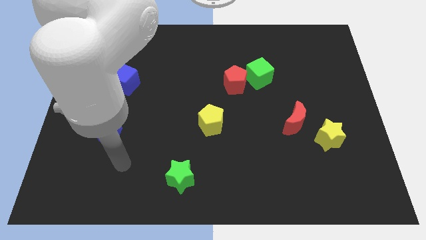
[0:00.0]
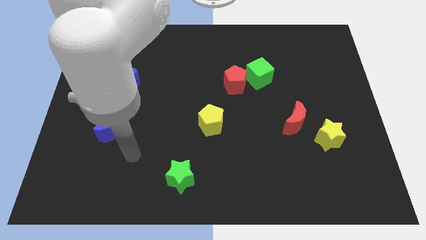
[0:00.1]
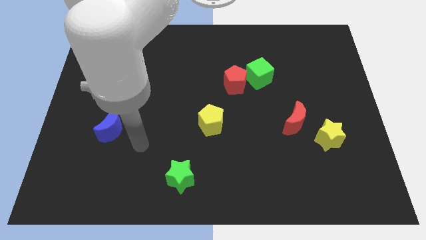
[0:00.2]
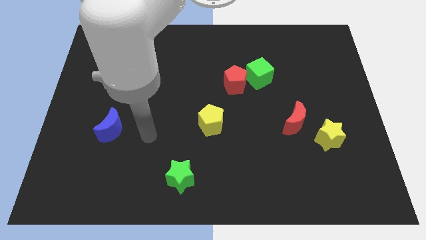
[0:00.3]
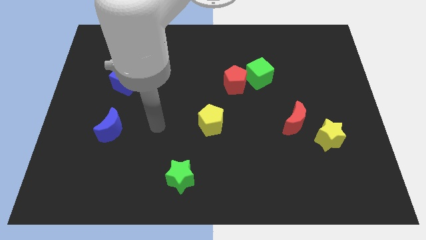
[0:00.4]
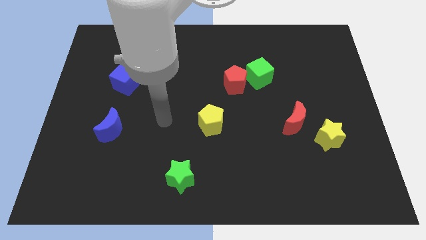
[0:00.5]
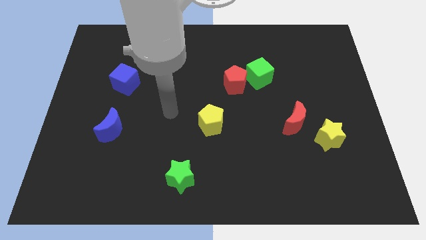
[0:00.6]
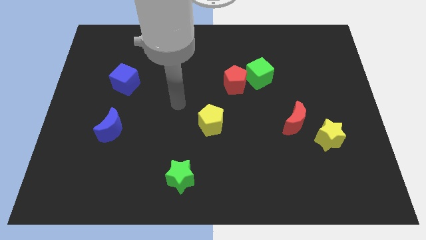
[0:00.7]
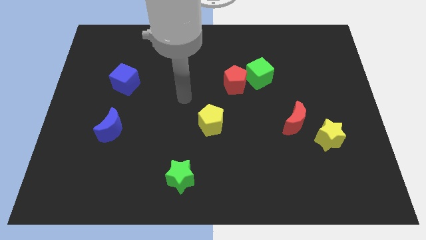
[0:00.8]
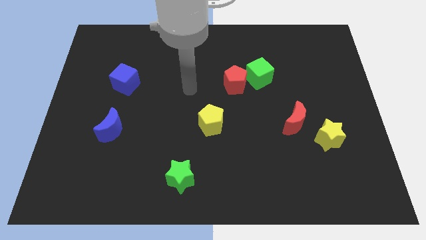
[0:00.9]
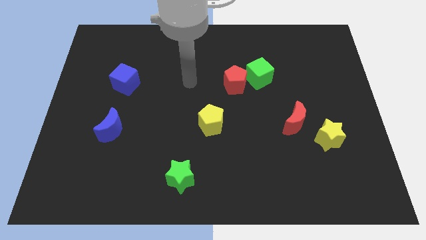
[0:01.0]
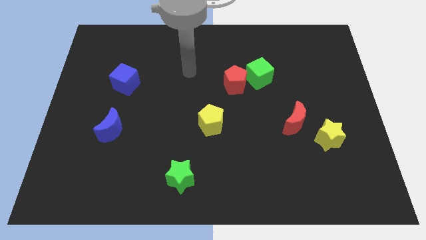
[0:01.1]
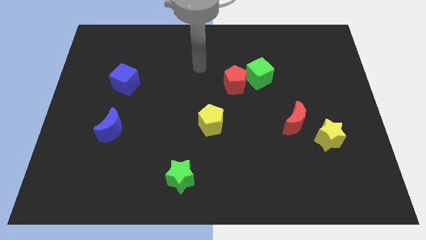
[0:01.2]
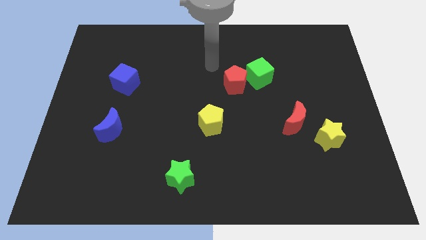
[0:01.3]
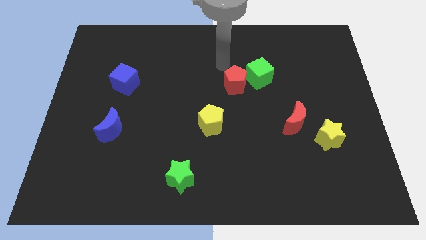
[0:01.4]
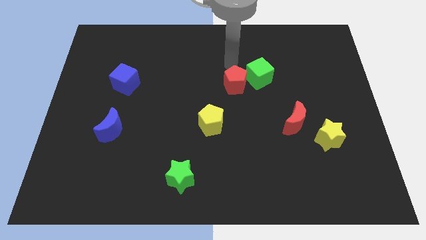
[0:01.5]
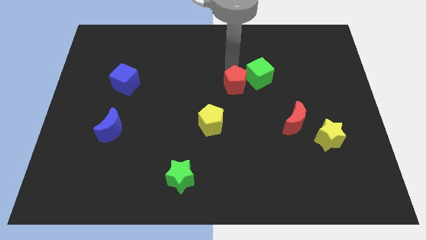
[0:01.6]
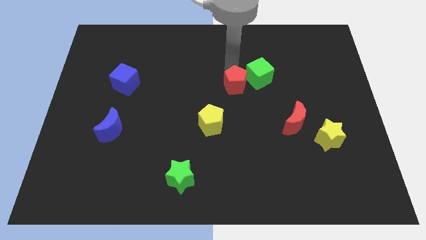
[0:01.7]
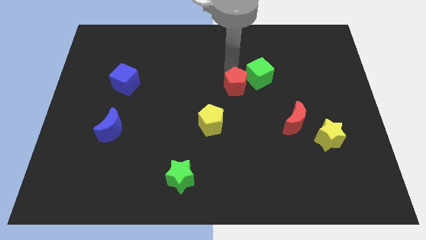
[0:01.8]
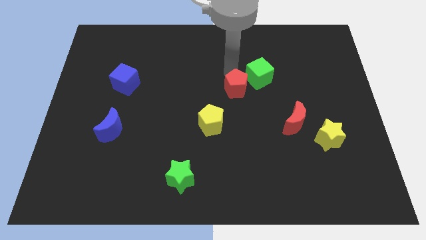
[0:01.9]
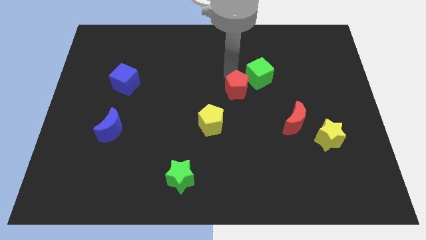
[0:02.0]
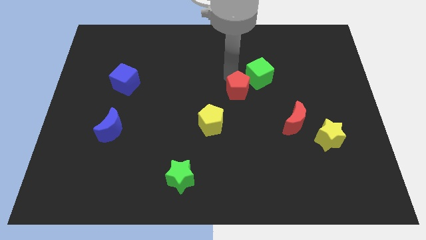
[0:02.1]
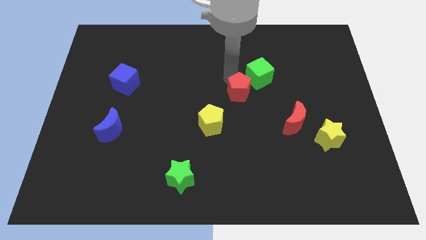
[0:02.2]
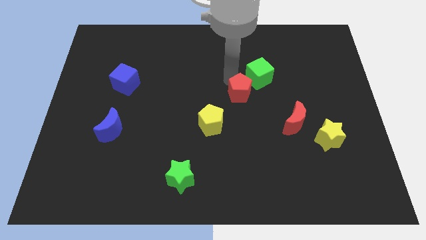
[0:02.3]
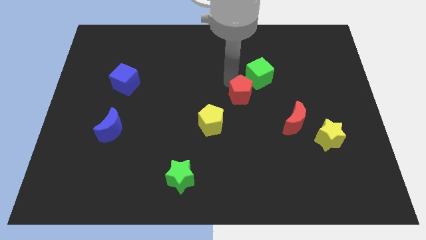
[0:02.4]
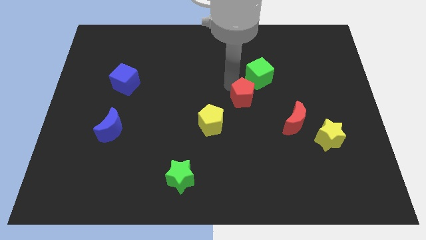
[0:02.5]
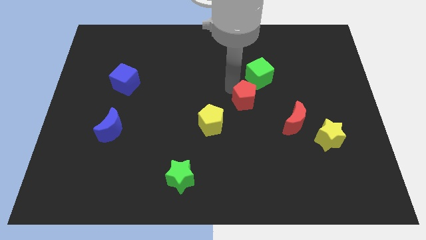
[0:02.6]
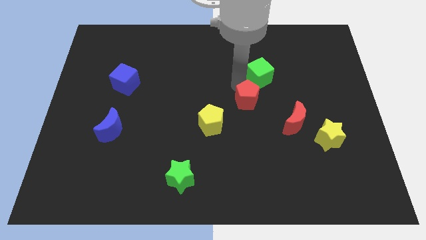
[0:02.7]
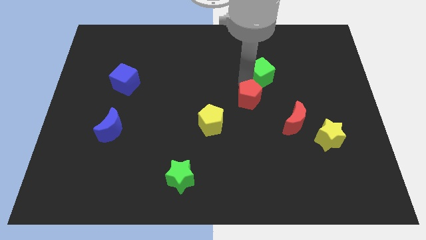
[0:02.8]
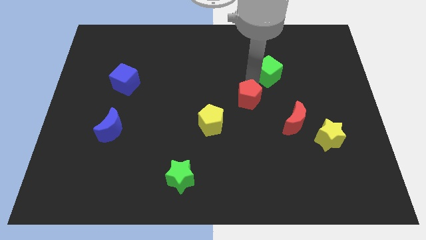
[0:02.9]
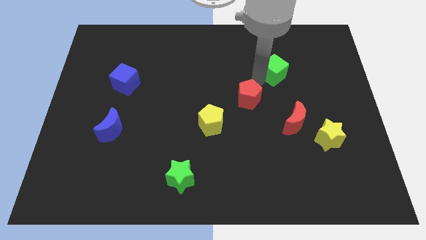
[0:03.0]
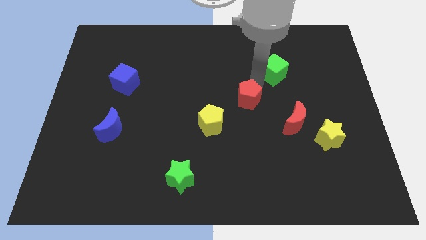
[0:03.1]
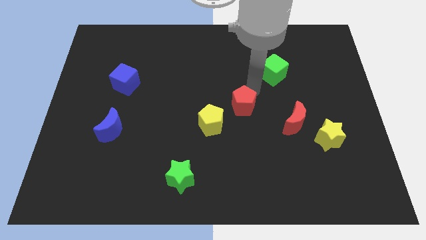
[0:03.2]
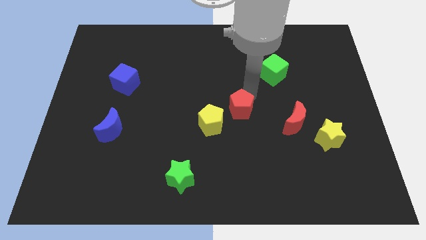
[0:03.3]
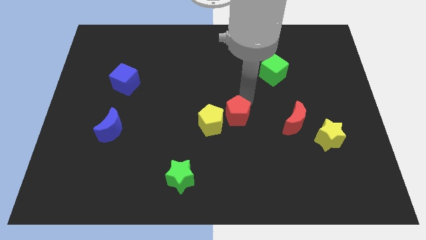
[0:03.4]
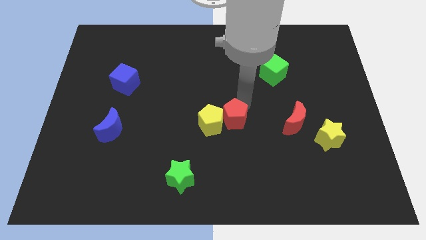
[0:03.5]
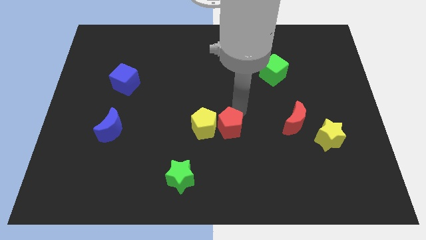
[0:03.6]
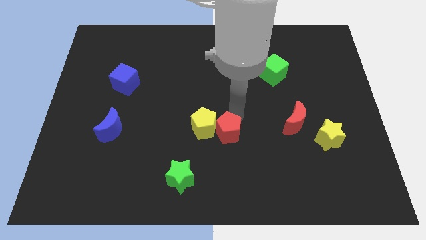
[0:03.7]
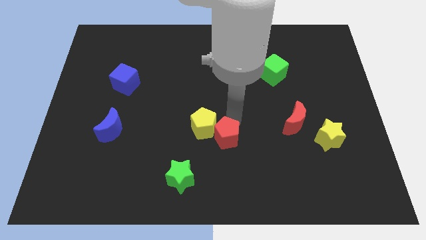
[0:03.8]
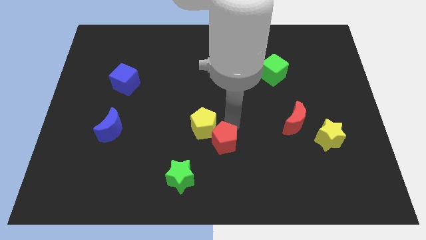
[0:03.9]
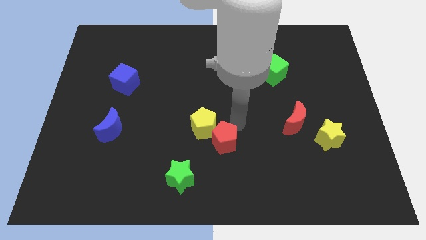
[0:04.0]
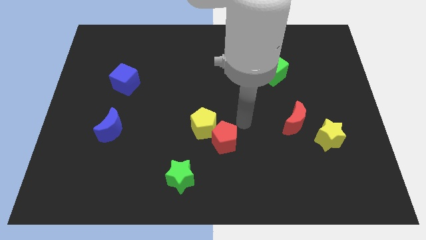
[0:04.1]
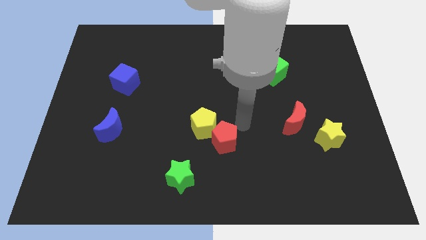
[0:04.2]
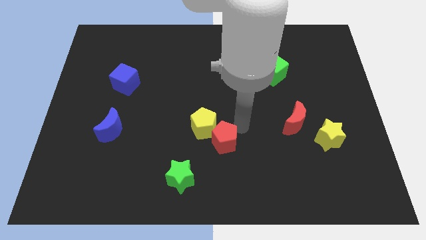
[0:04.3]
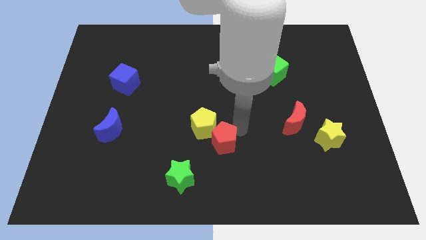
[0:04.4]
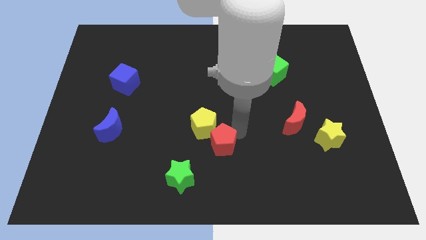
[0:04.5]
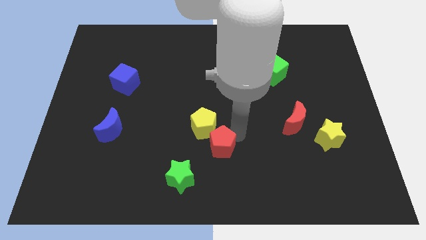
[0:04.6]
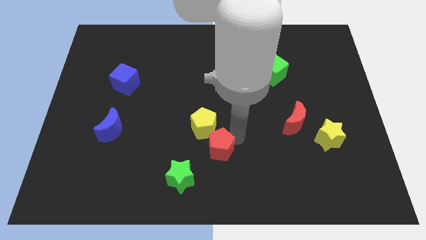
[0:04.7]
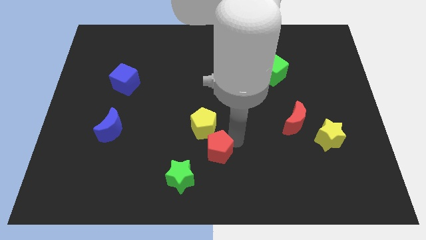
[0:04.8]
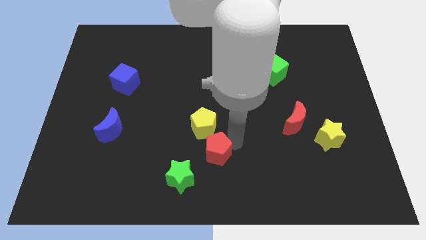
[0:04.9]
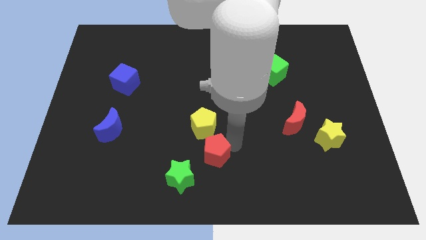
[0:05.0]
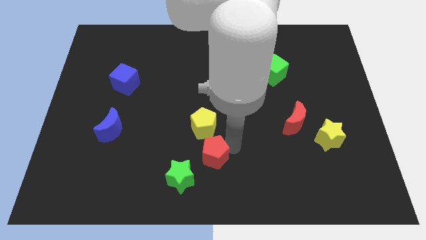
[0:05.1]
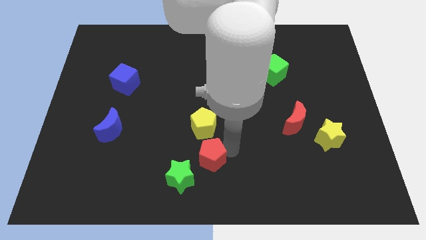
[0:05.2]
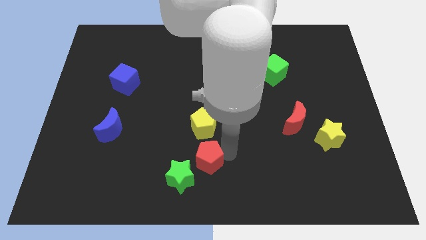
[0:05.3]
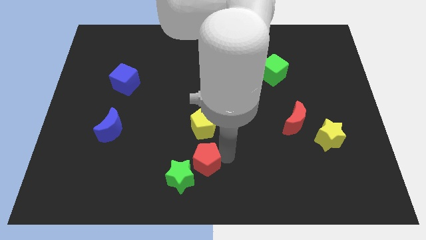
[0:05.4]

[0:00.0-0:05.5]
put the red pentagon close to the green star

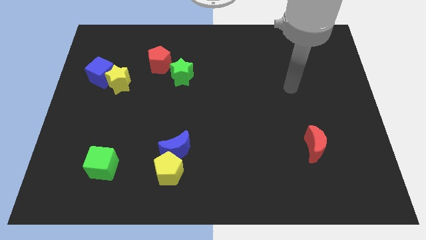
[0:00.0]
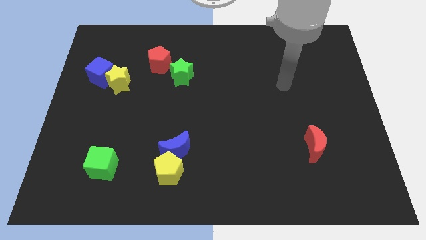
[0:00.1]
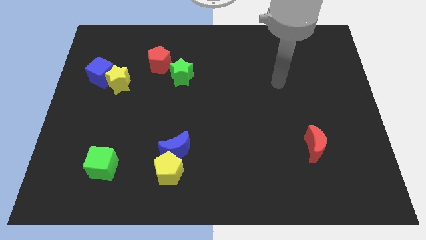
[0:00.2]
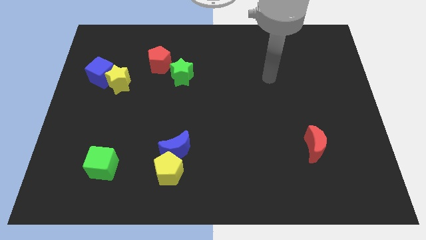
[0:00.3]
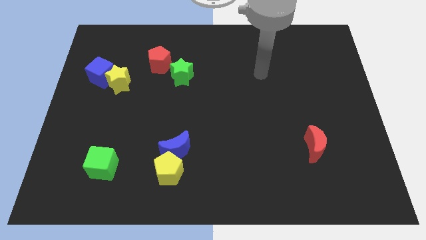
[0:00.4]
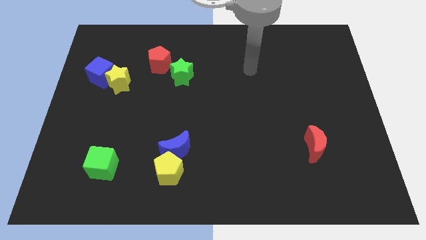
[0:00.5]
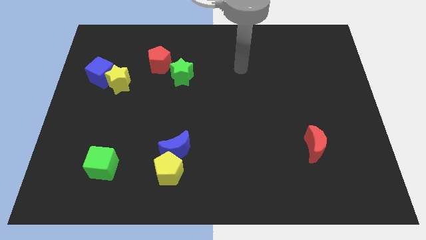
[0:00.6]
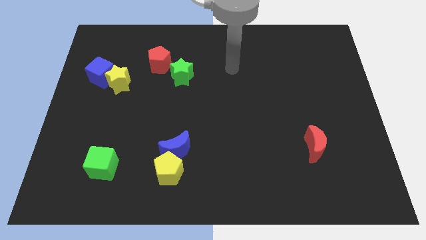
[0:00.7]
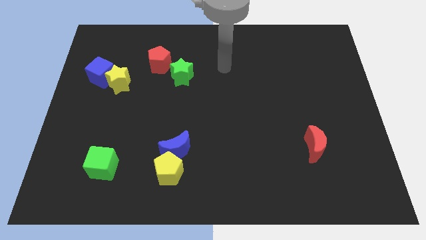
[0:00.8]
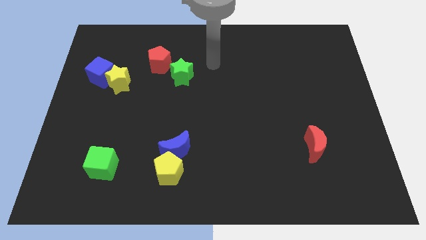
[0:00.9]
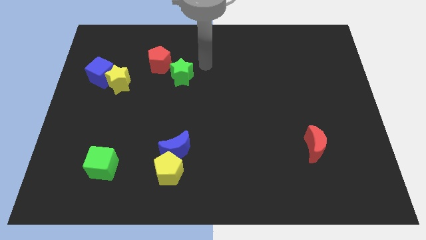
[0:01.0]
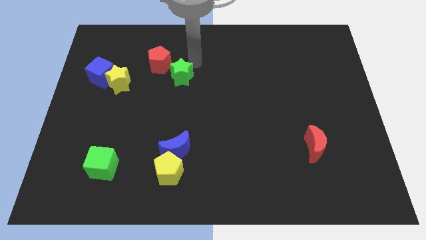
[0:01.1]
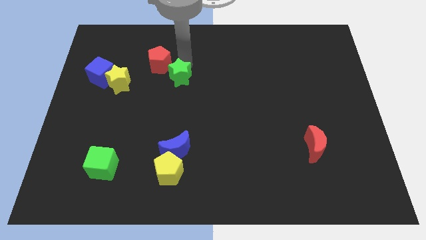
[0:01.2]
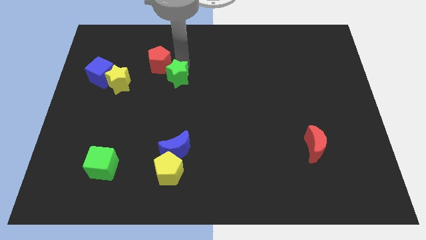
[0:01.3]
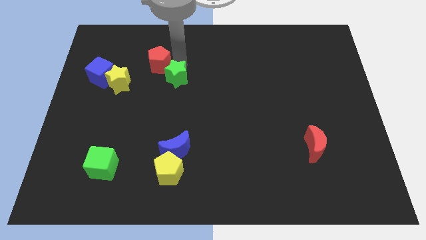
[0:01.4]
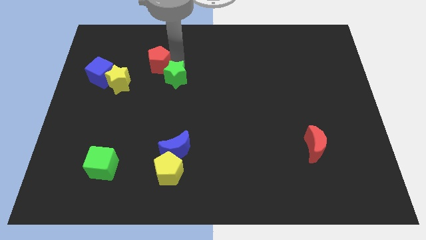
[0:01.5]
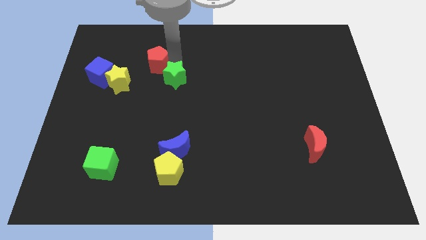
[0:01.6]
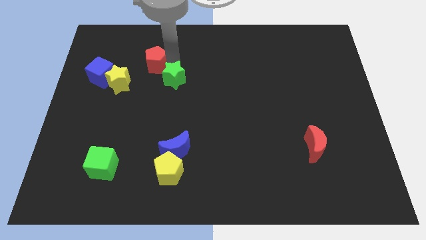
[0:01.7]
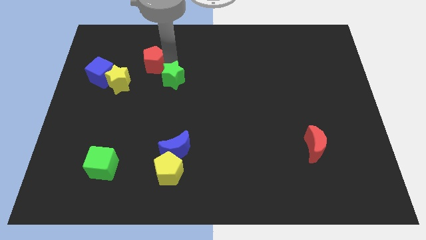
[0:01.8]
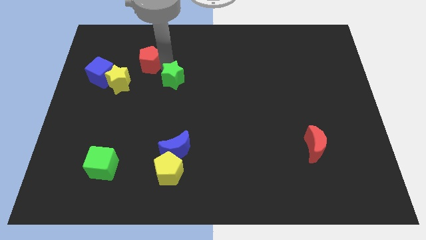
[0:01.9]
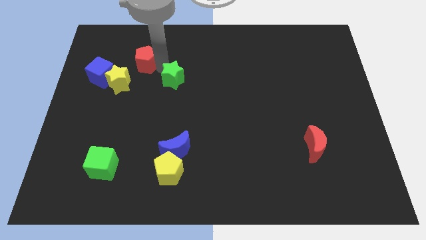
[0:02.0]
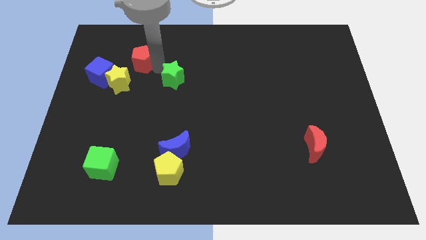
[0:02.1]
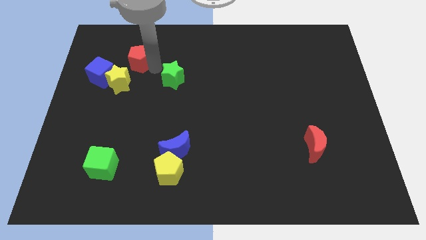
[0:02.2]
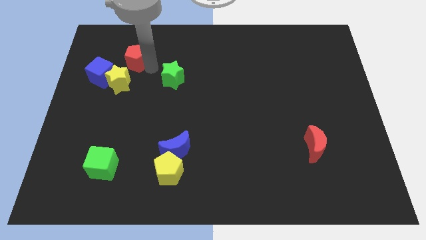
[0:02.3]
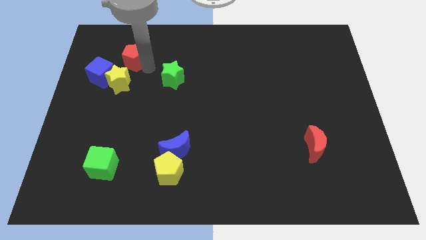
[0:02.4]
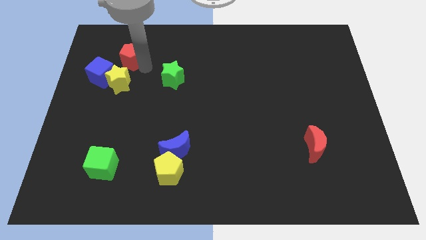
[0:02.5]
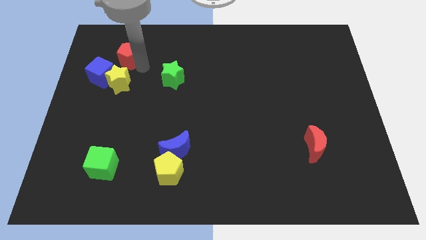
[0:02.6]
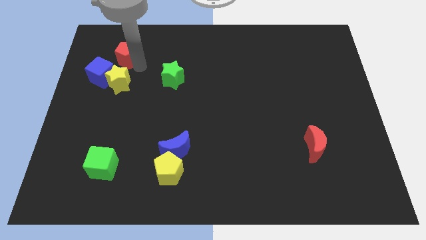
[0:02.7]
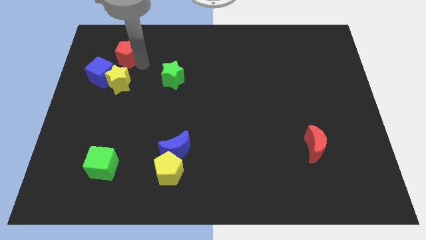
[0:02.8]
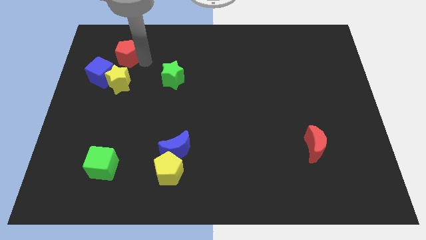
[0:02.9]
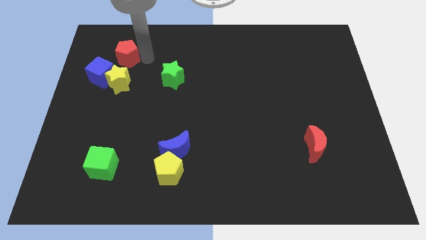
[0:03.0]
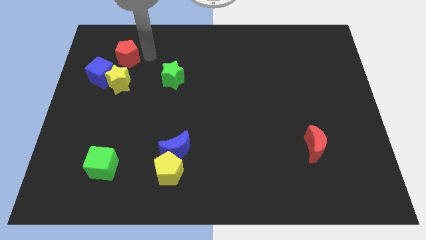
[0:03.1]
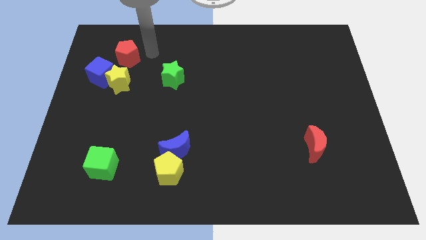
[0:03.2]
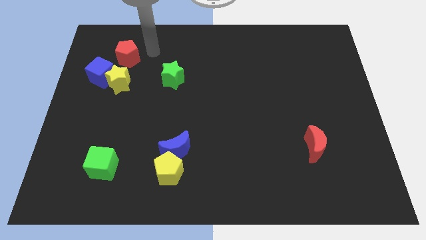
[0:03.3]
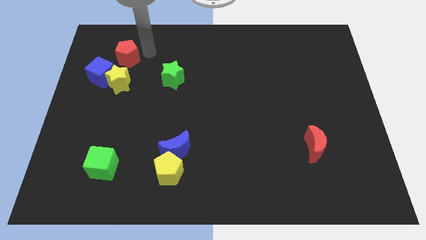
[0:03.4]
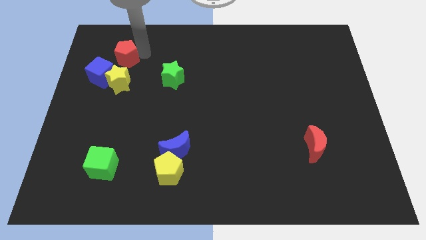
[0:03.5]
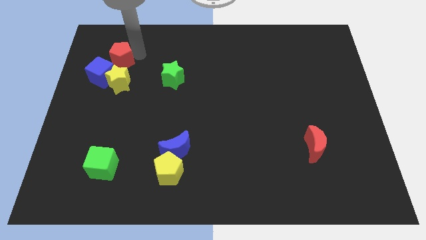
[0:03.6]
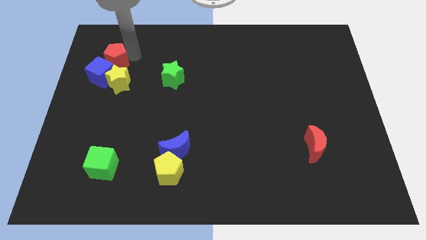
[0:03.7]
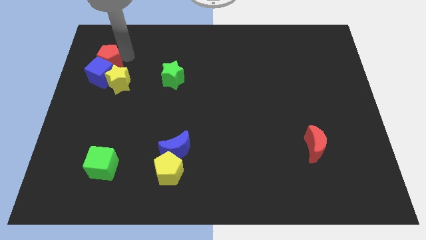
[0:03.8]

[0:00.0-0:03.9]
put the red pentagon next to the blue cube
